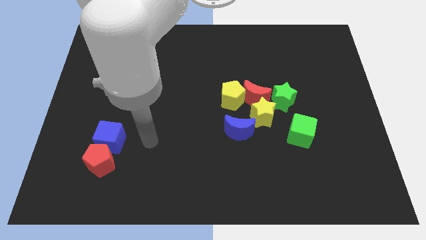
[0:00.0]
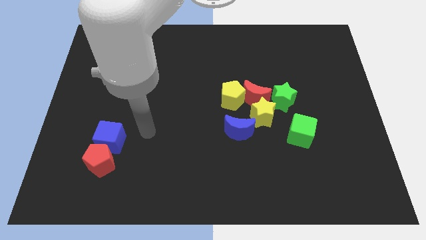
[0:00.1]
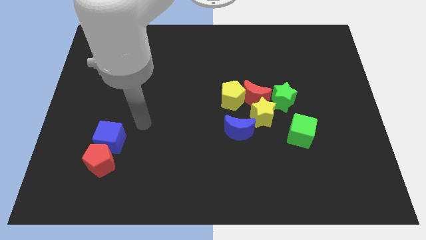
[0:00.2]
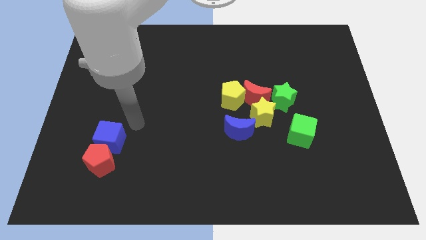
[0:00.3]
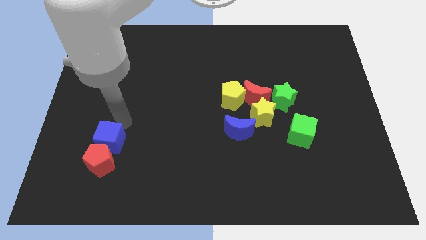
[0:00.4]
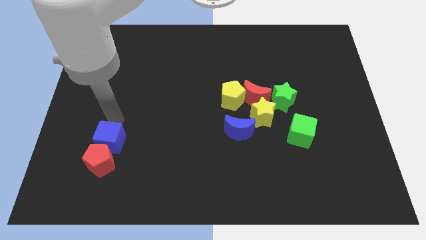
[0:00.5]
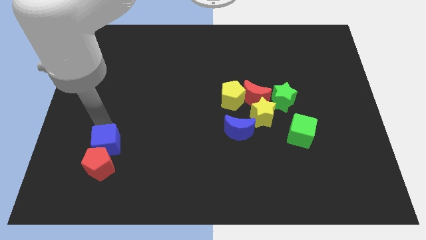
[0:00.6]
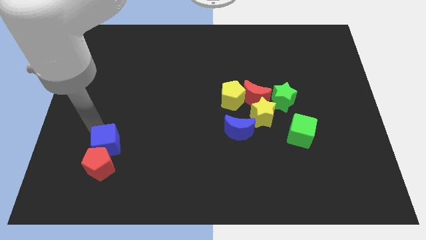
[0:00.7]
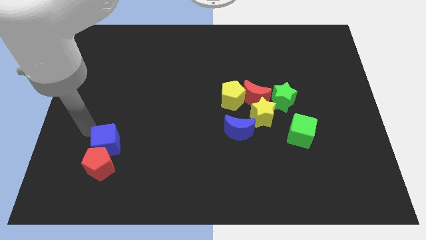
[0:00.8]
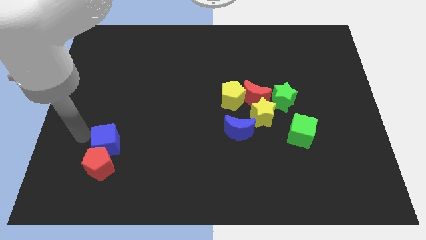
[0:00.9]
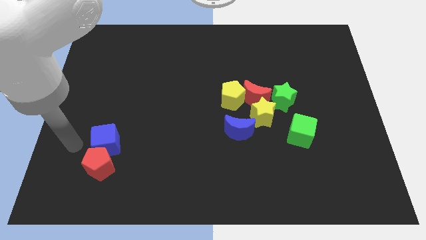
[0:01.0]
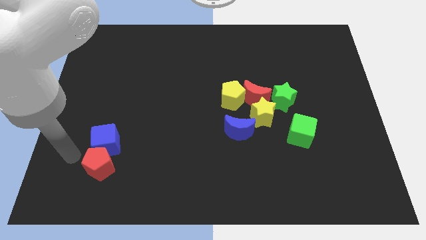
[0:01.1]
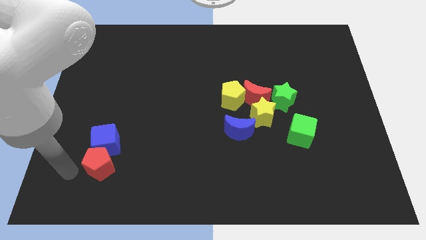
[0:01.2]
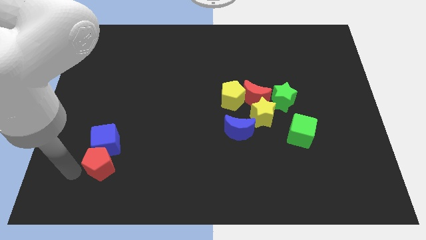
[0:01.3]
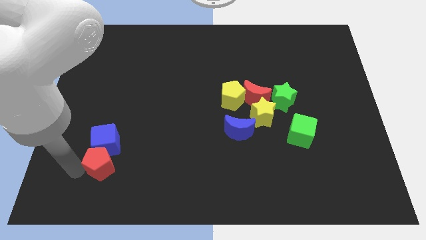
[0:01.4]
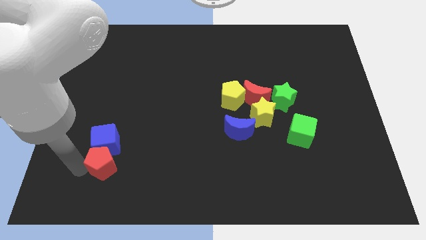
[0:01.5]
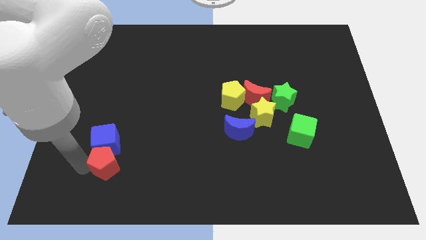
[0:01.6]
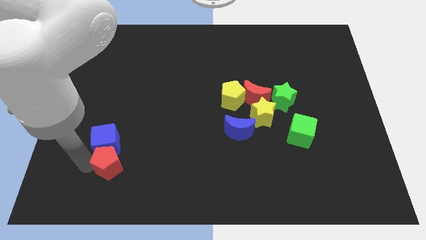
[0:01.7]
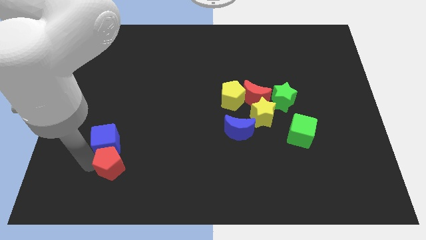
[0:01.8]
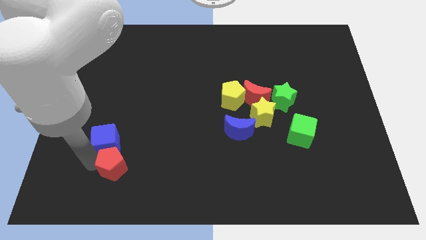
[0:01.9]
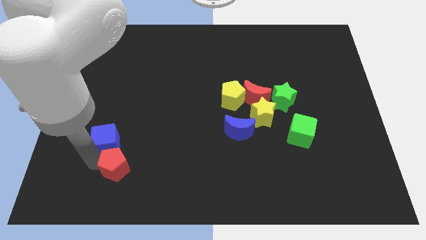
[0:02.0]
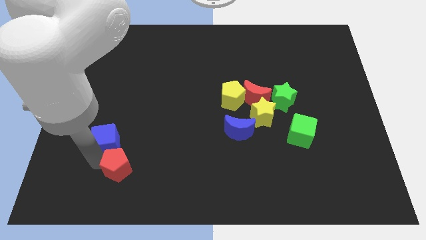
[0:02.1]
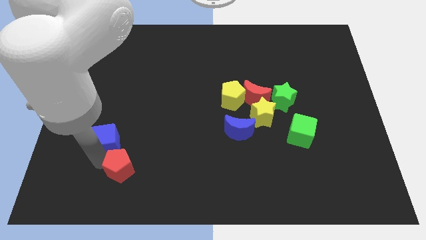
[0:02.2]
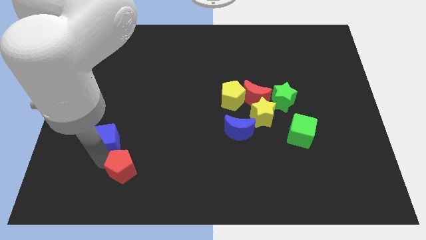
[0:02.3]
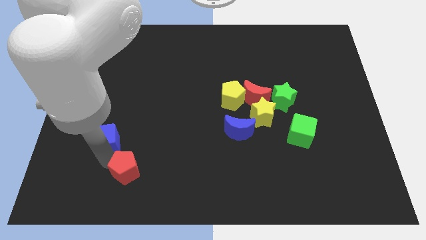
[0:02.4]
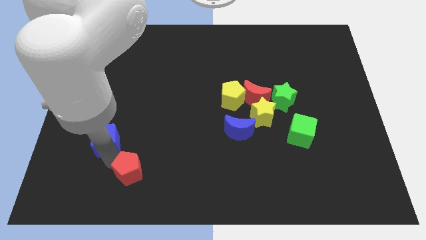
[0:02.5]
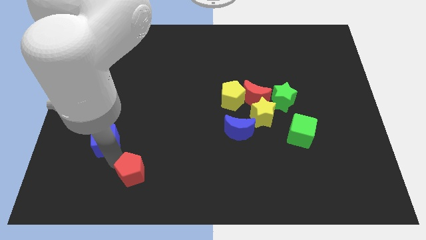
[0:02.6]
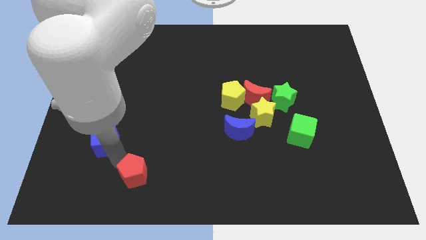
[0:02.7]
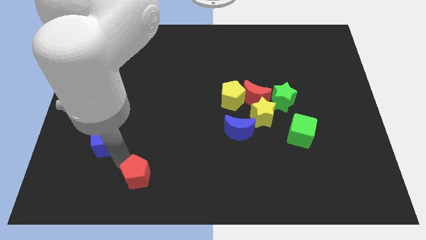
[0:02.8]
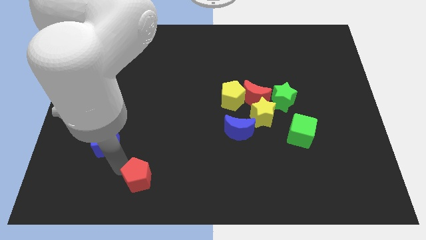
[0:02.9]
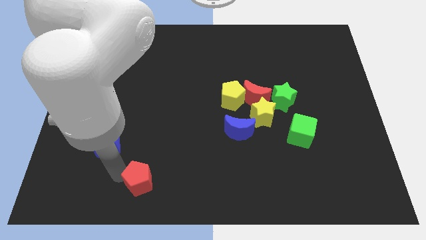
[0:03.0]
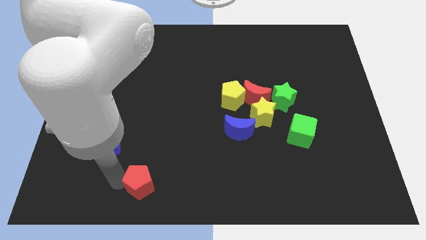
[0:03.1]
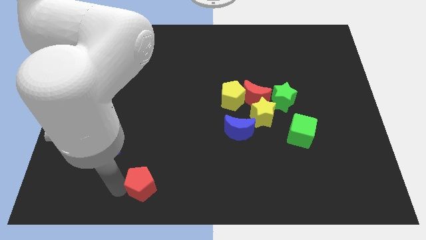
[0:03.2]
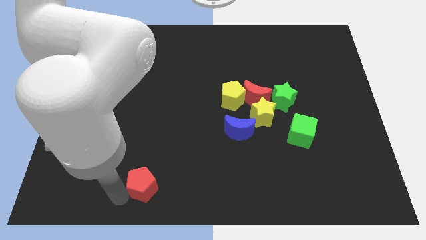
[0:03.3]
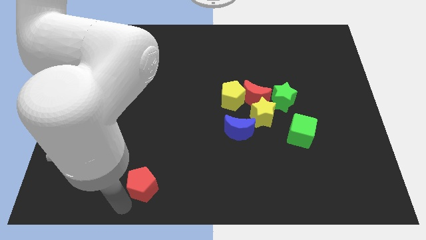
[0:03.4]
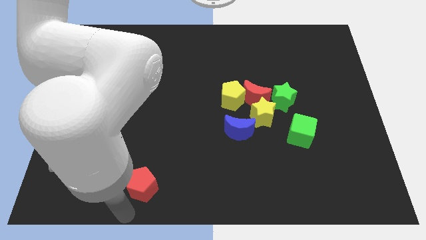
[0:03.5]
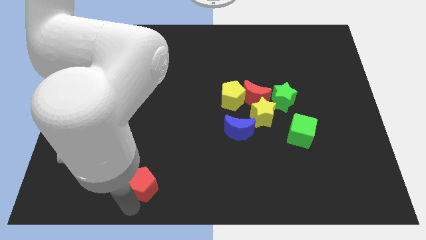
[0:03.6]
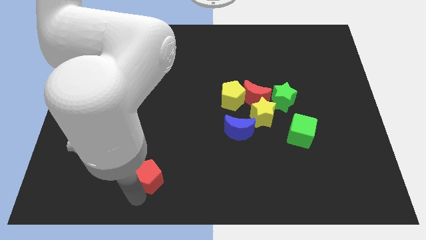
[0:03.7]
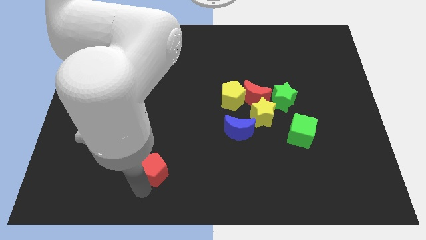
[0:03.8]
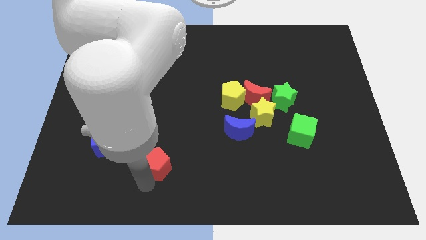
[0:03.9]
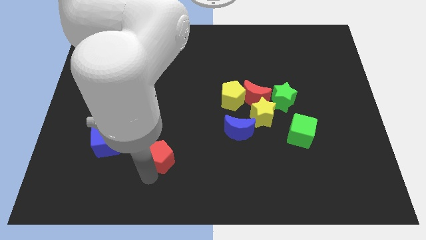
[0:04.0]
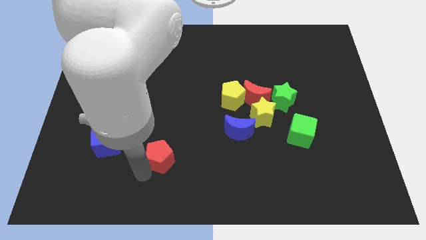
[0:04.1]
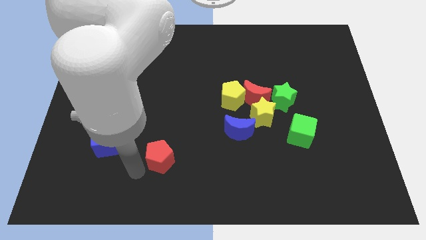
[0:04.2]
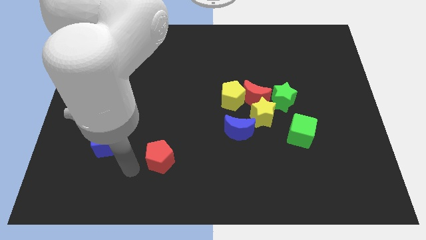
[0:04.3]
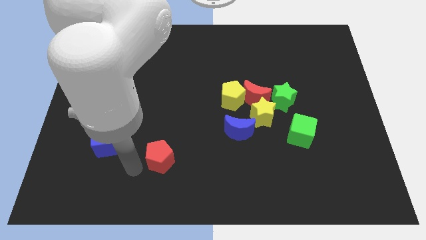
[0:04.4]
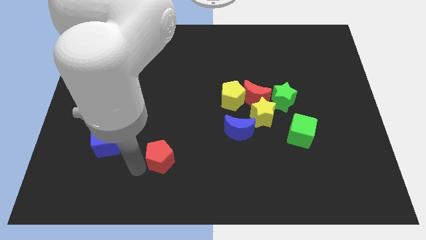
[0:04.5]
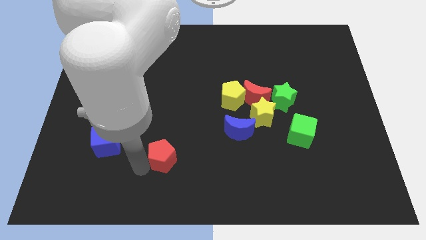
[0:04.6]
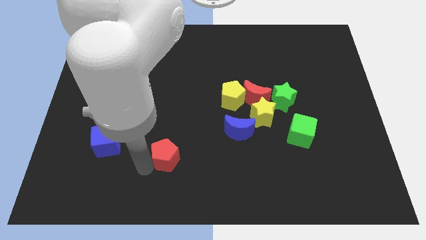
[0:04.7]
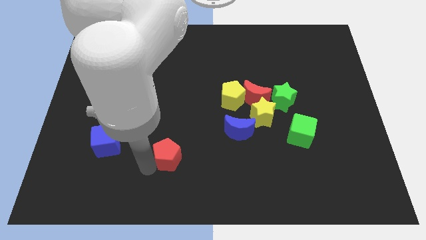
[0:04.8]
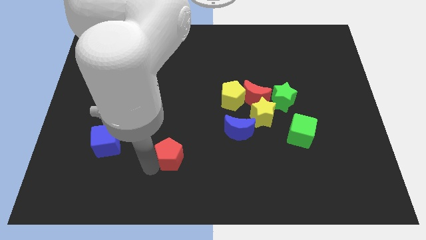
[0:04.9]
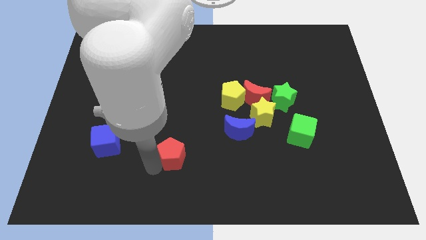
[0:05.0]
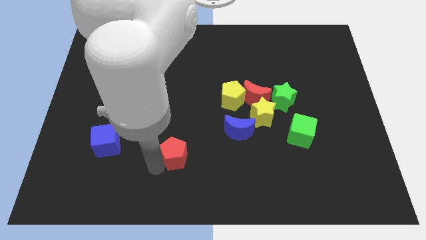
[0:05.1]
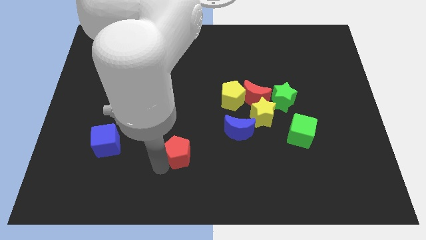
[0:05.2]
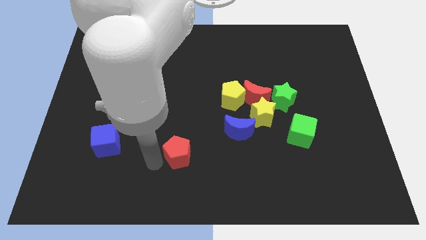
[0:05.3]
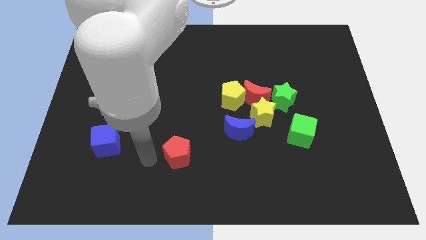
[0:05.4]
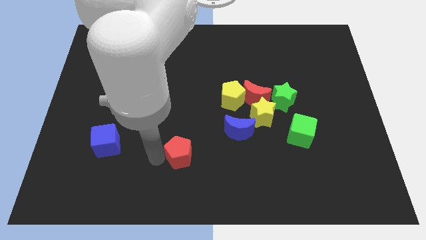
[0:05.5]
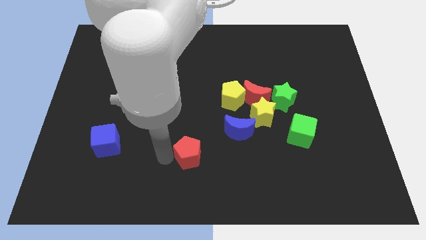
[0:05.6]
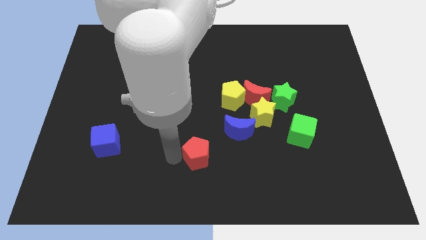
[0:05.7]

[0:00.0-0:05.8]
push the red pentagon to the bottom left of the blue moon

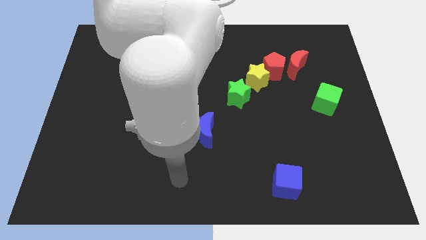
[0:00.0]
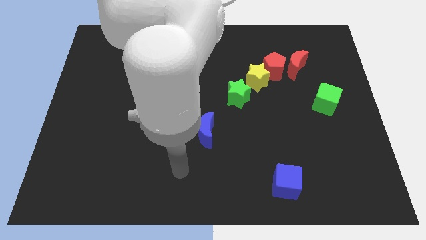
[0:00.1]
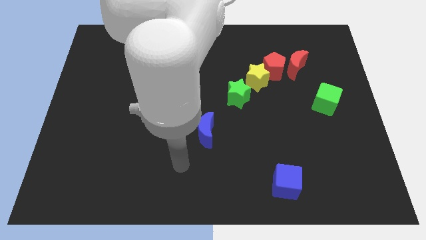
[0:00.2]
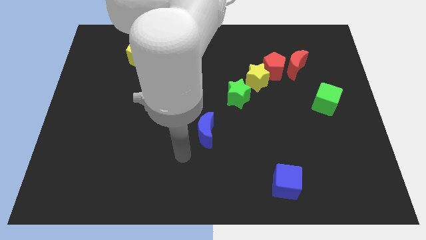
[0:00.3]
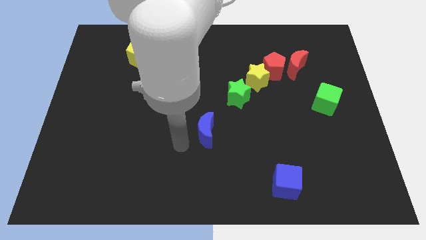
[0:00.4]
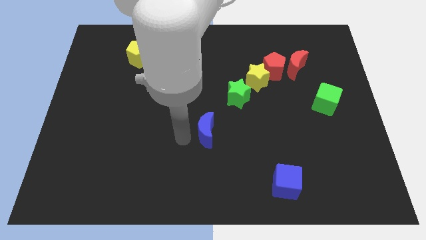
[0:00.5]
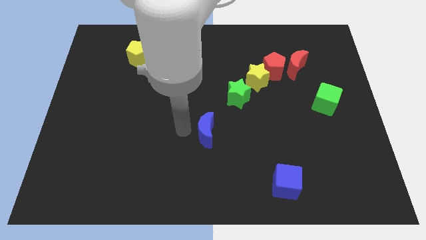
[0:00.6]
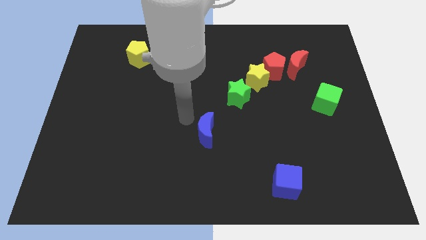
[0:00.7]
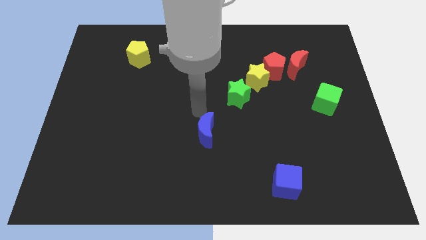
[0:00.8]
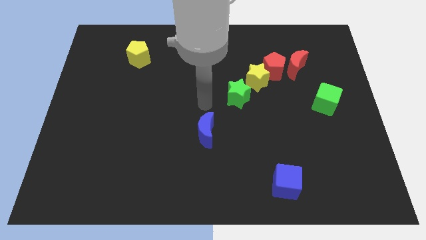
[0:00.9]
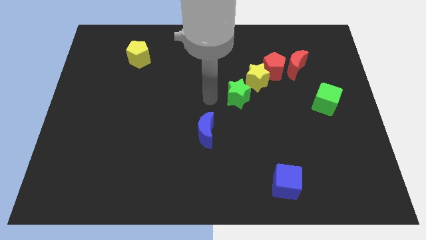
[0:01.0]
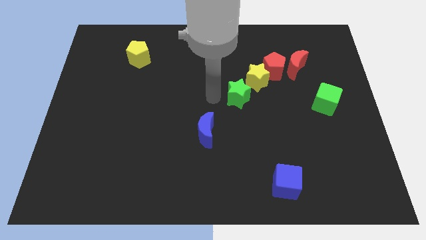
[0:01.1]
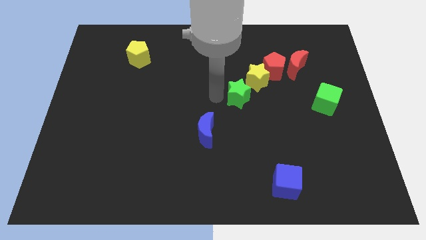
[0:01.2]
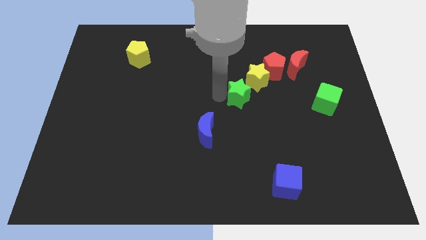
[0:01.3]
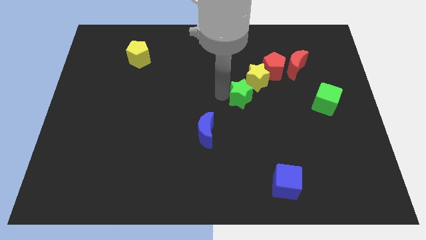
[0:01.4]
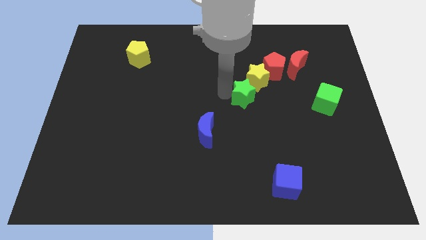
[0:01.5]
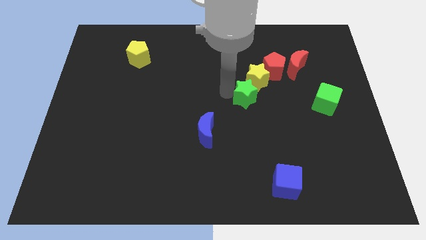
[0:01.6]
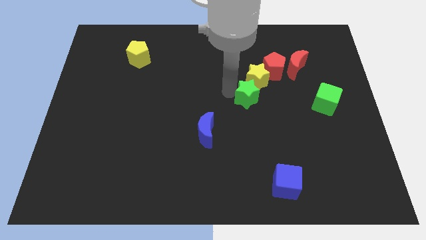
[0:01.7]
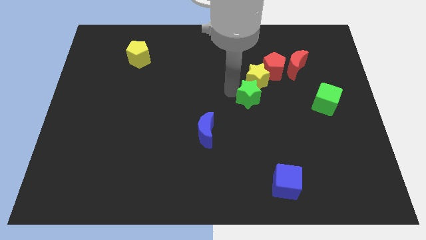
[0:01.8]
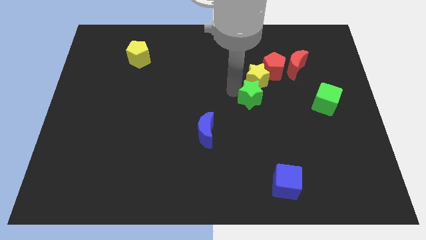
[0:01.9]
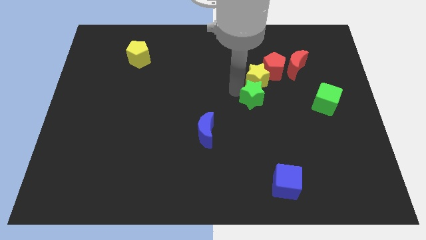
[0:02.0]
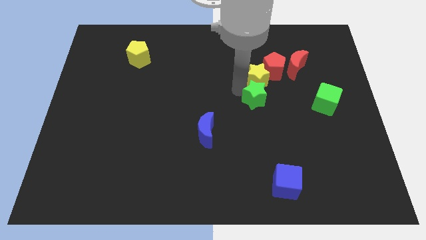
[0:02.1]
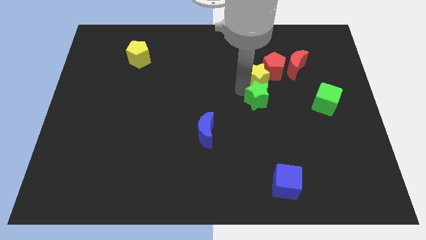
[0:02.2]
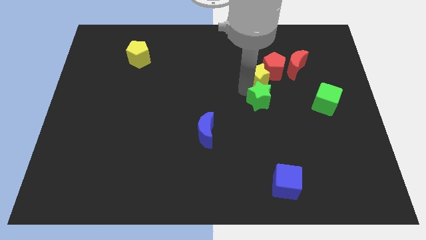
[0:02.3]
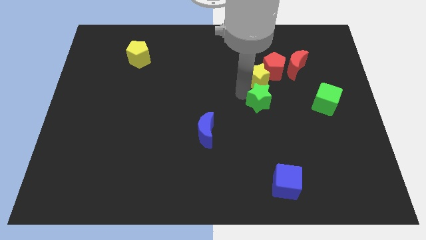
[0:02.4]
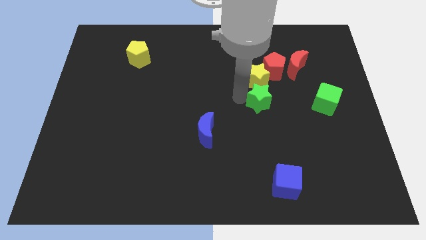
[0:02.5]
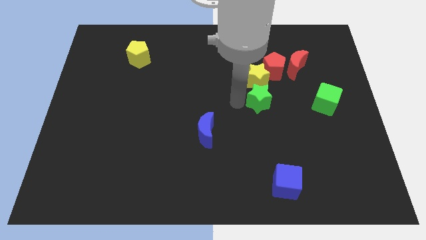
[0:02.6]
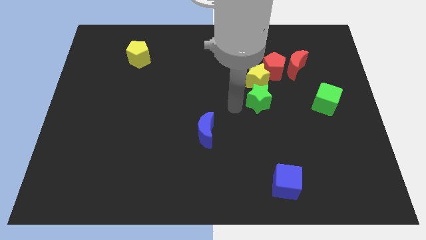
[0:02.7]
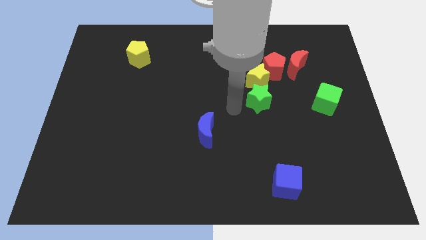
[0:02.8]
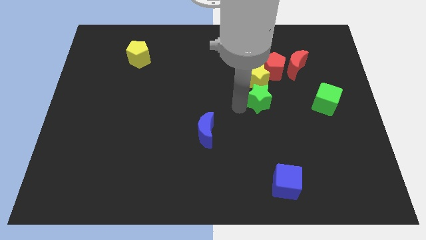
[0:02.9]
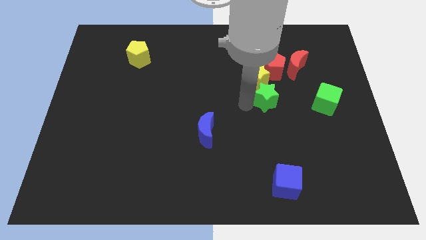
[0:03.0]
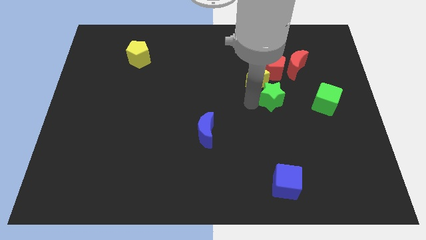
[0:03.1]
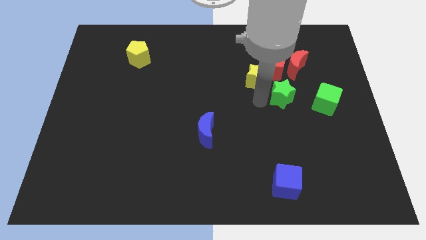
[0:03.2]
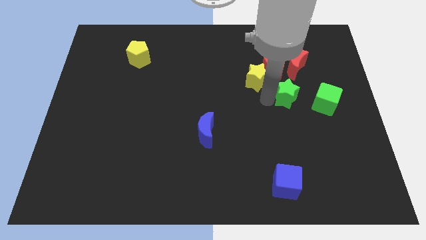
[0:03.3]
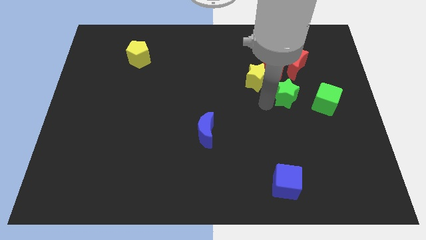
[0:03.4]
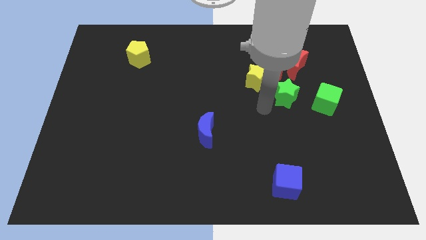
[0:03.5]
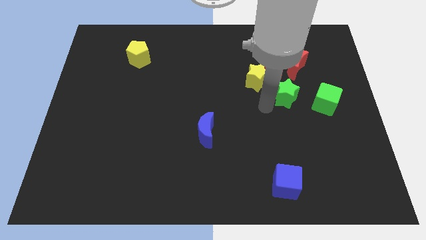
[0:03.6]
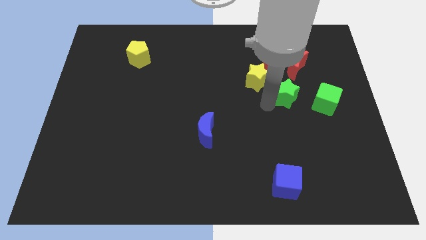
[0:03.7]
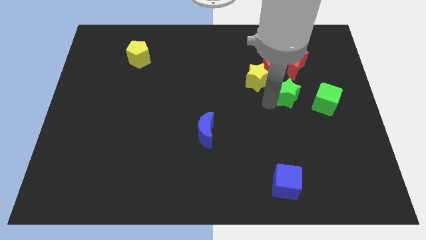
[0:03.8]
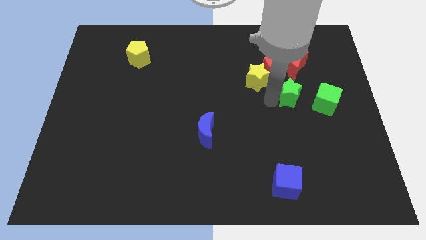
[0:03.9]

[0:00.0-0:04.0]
put the green star to the top left of the green cube
